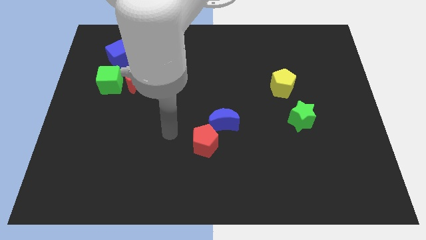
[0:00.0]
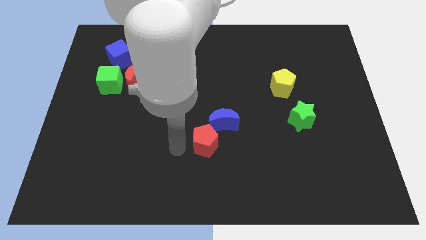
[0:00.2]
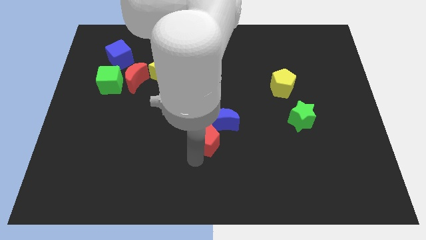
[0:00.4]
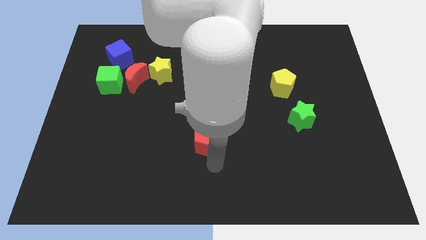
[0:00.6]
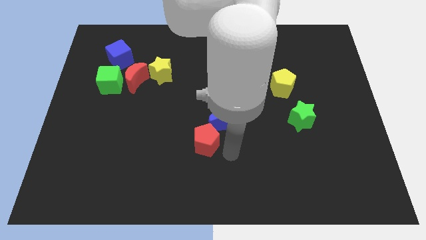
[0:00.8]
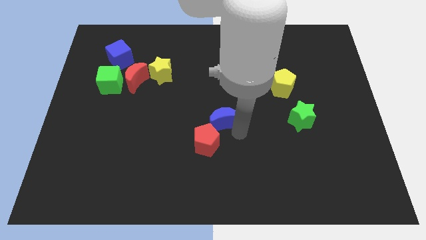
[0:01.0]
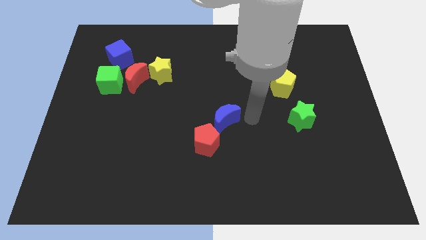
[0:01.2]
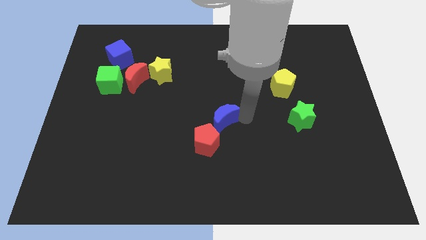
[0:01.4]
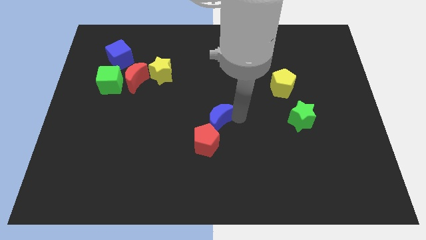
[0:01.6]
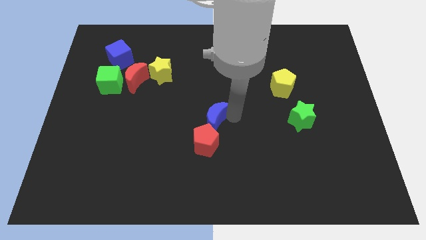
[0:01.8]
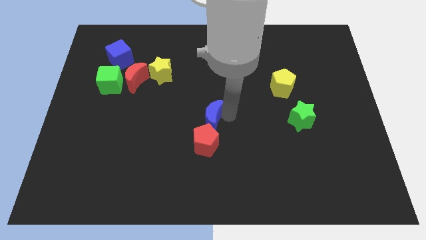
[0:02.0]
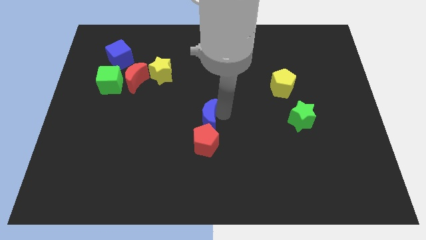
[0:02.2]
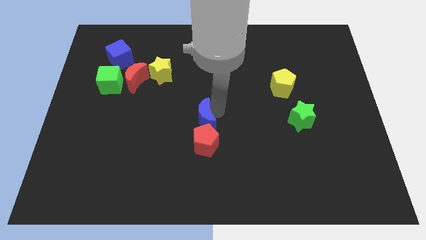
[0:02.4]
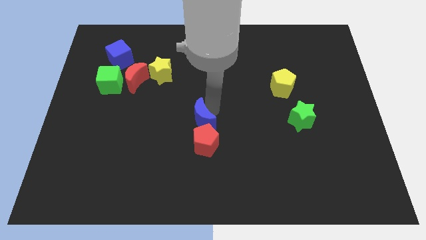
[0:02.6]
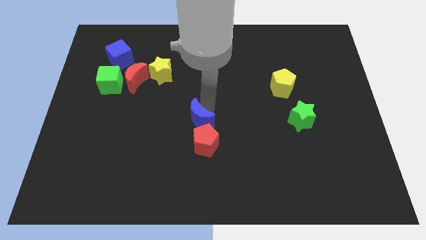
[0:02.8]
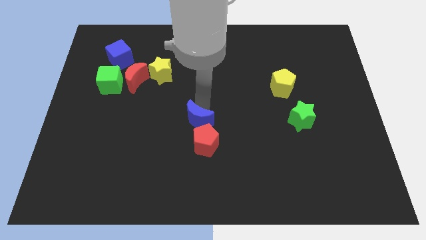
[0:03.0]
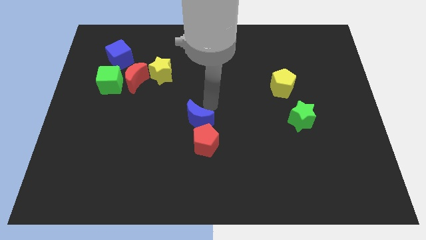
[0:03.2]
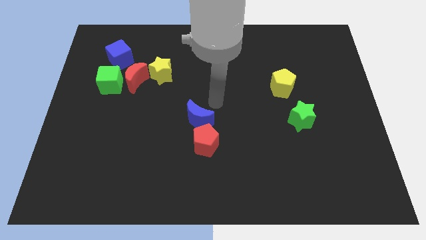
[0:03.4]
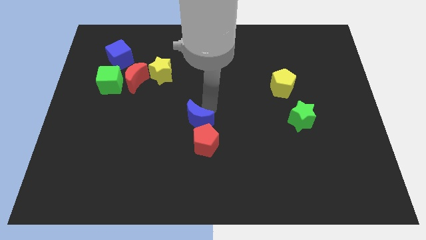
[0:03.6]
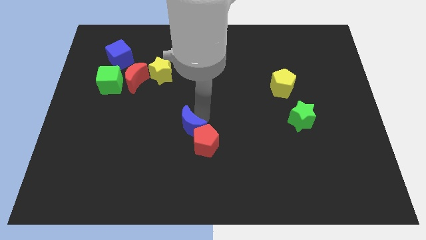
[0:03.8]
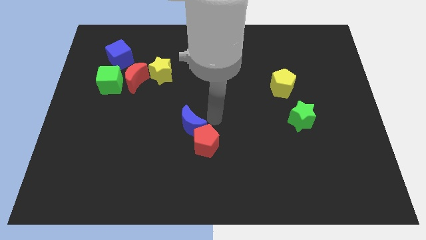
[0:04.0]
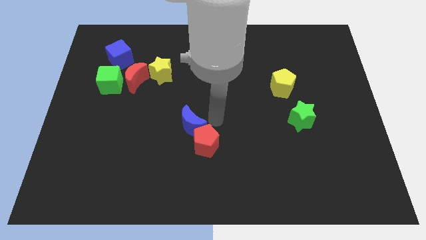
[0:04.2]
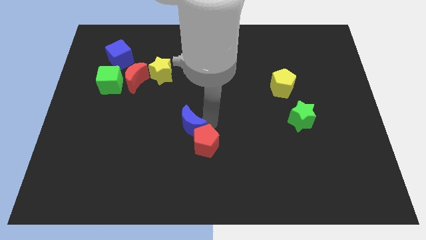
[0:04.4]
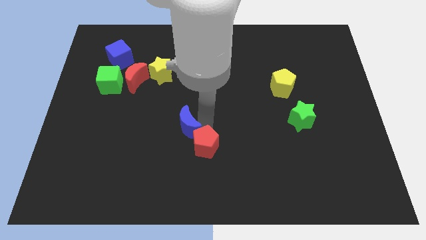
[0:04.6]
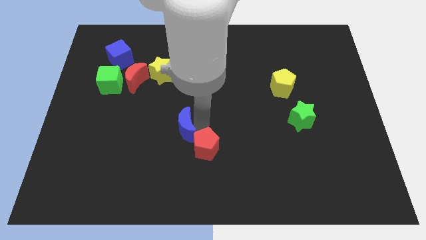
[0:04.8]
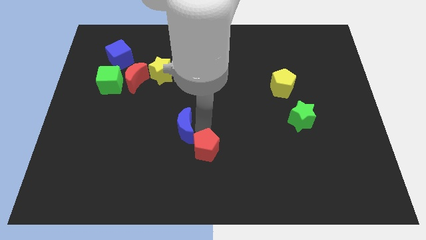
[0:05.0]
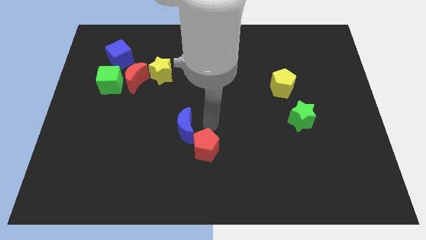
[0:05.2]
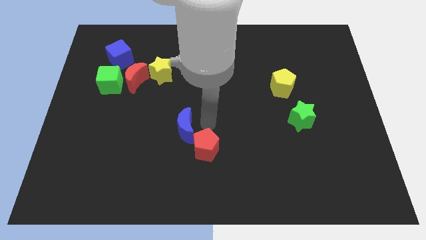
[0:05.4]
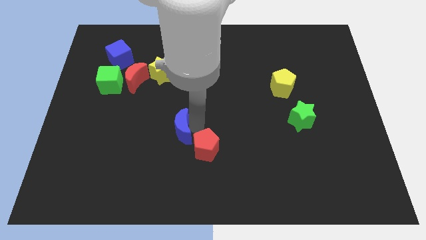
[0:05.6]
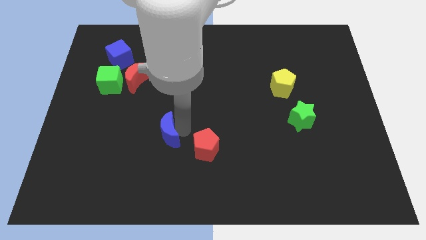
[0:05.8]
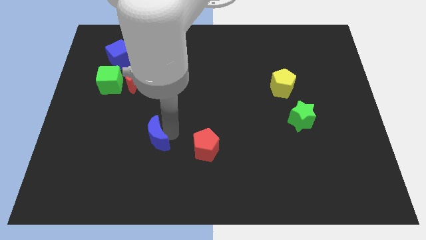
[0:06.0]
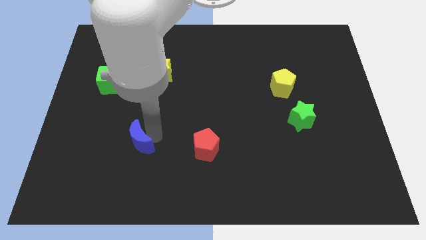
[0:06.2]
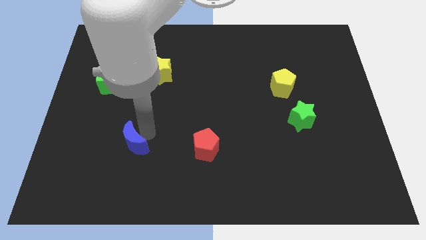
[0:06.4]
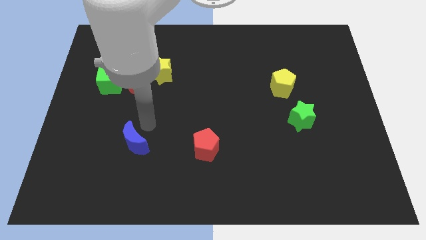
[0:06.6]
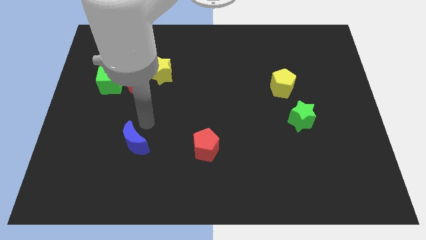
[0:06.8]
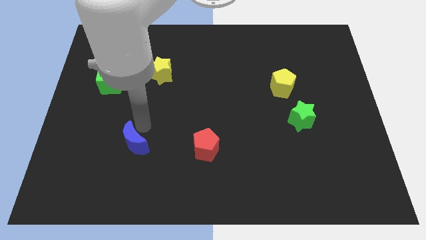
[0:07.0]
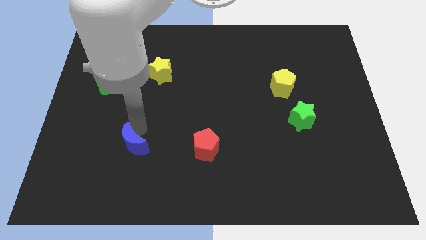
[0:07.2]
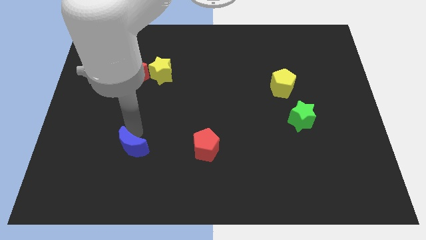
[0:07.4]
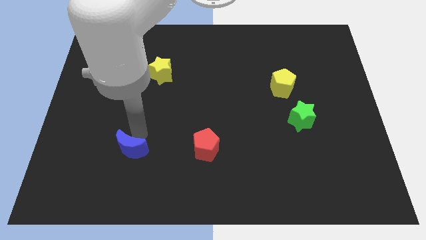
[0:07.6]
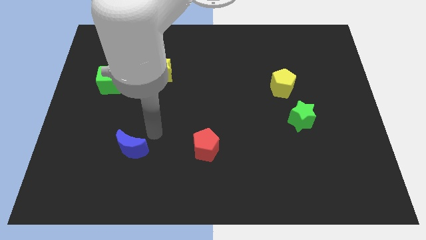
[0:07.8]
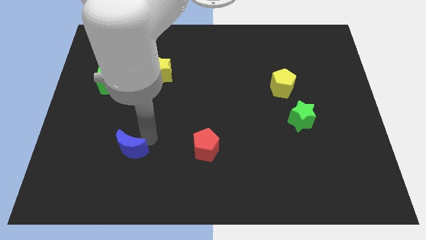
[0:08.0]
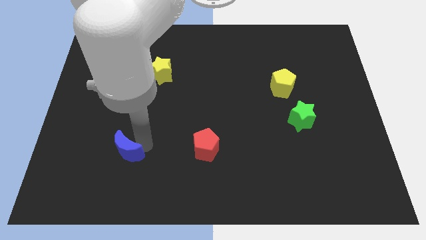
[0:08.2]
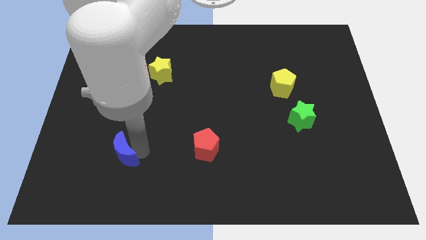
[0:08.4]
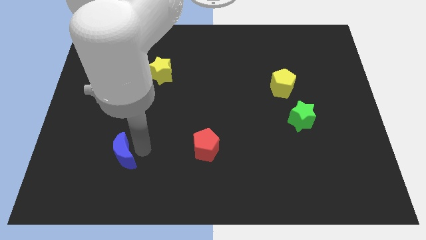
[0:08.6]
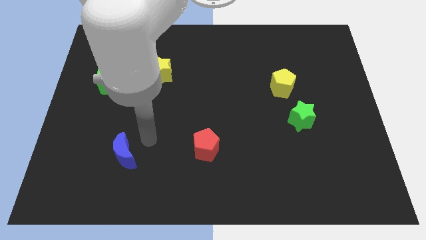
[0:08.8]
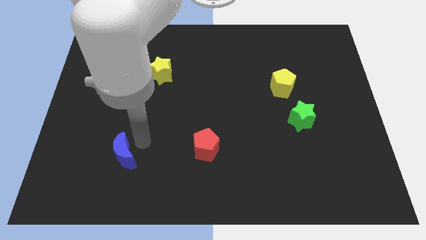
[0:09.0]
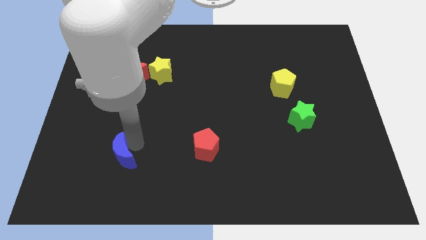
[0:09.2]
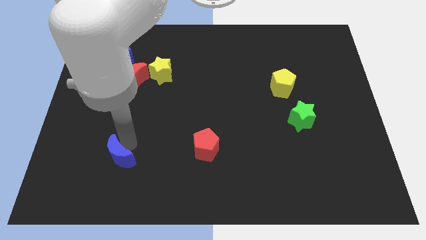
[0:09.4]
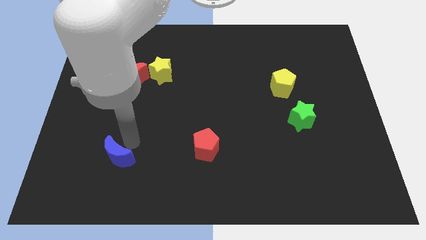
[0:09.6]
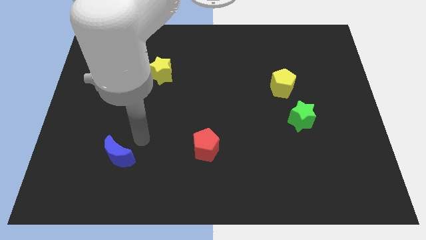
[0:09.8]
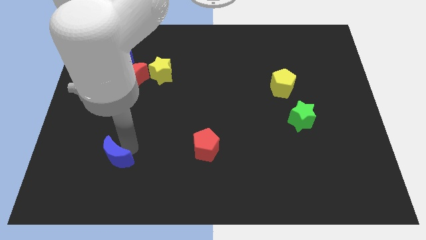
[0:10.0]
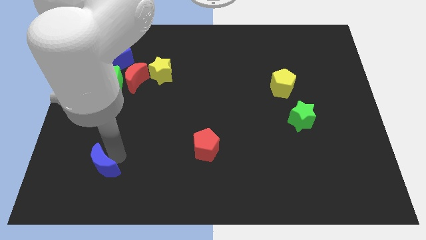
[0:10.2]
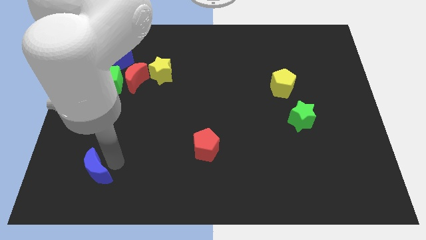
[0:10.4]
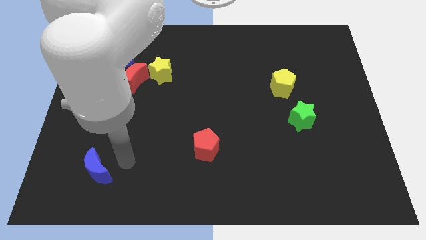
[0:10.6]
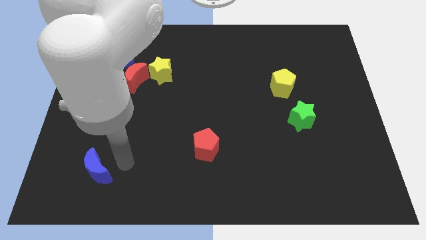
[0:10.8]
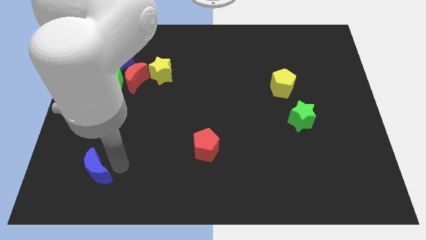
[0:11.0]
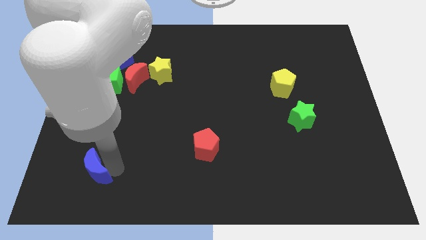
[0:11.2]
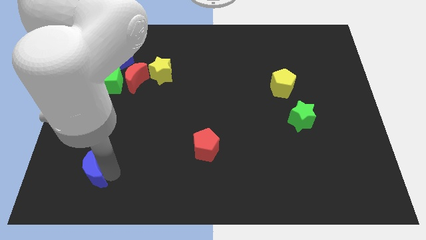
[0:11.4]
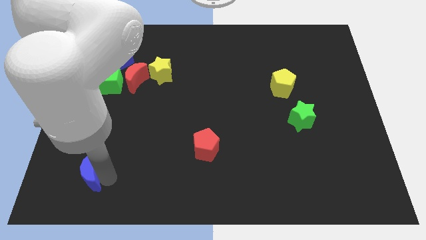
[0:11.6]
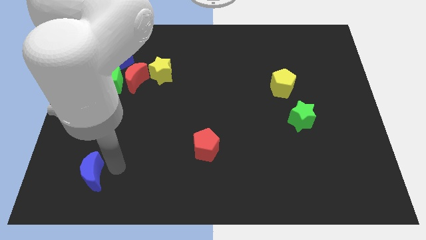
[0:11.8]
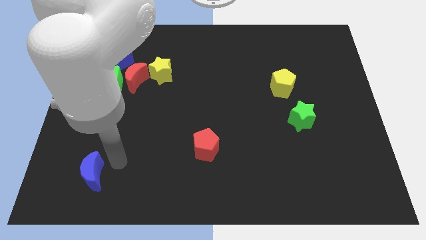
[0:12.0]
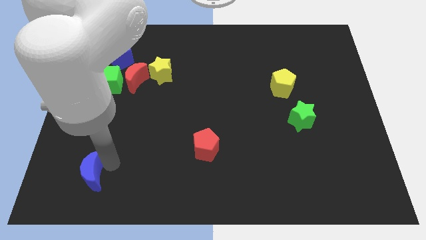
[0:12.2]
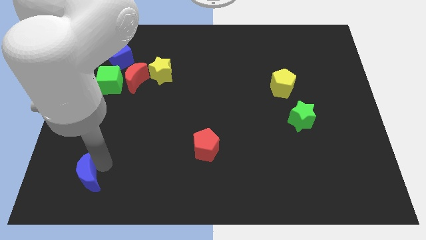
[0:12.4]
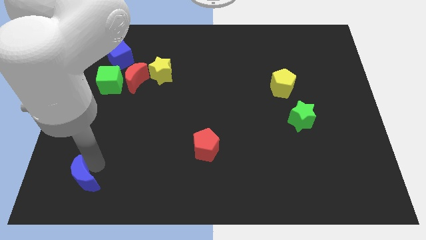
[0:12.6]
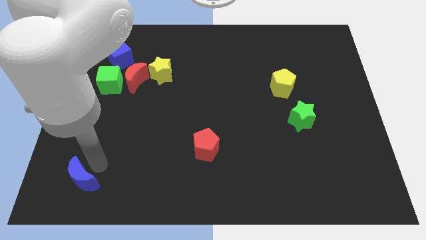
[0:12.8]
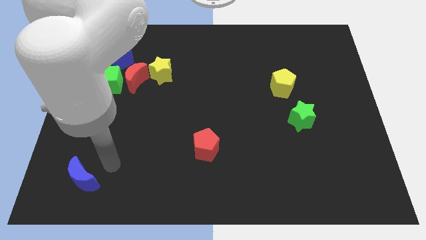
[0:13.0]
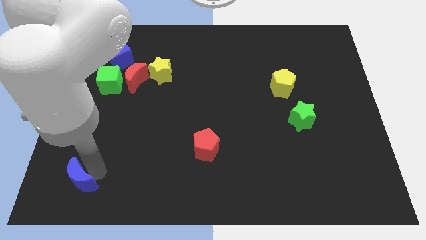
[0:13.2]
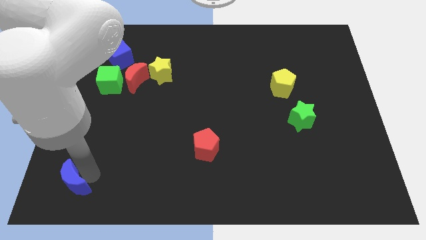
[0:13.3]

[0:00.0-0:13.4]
put the blue moon to the bottom left
